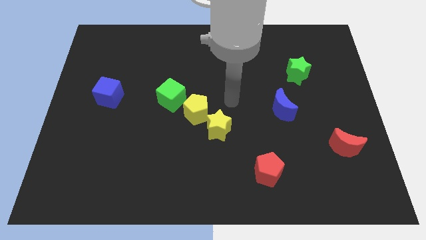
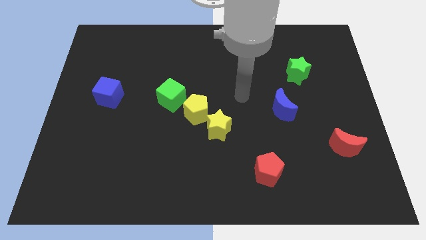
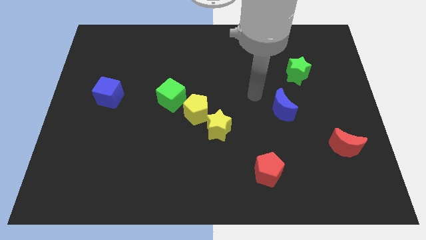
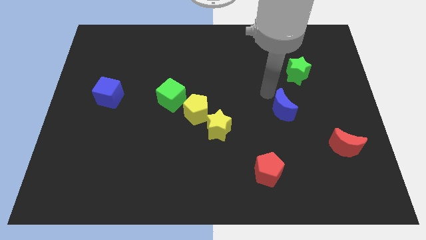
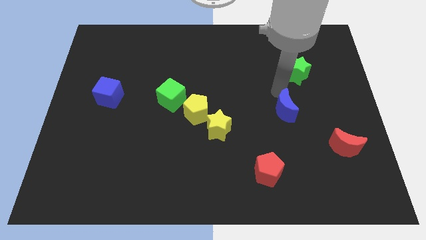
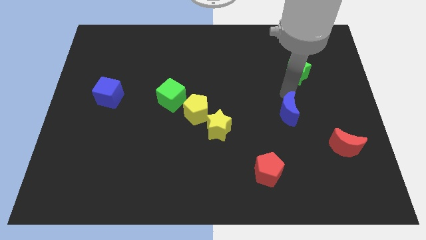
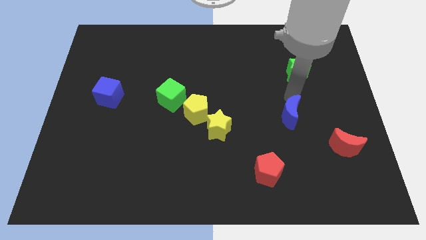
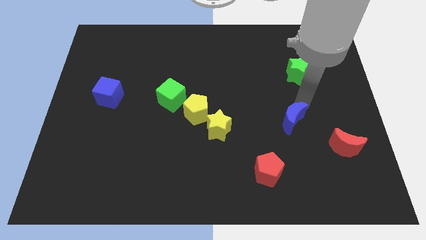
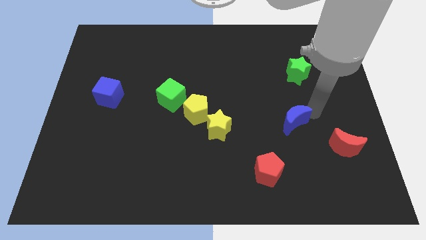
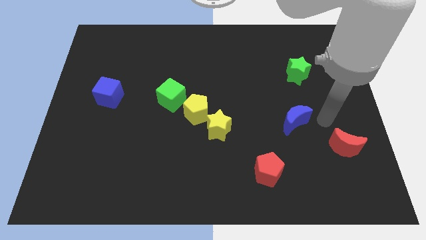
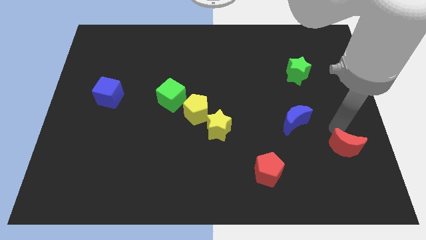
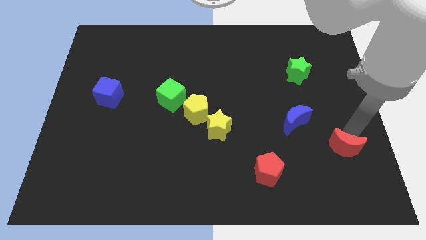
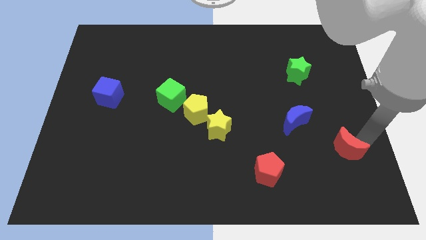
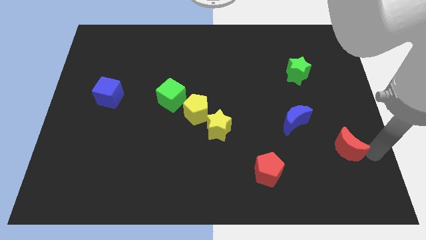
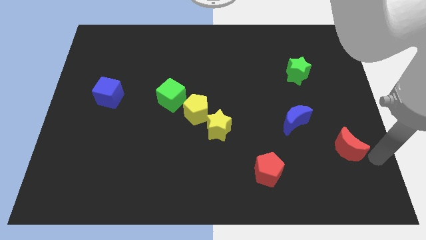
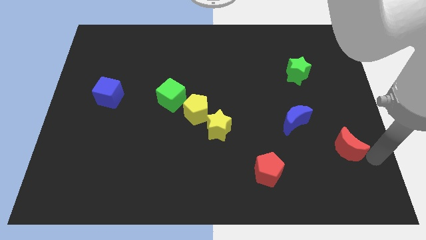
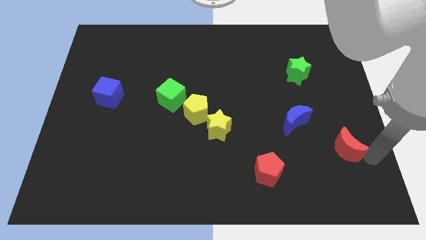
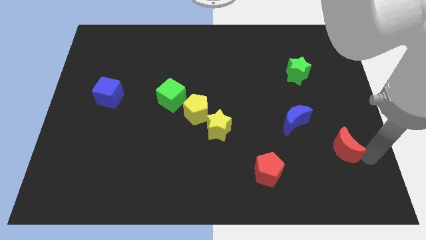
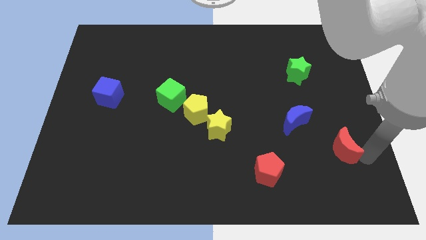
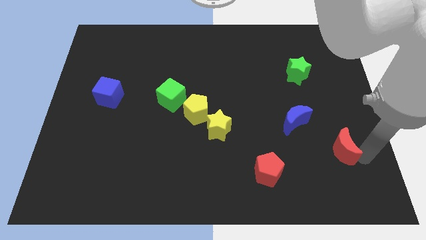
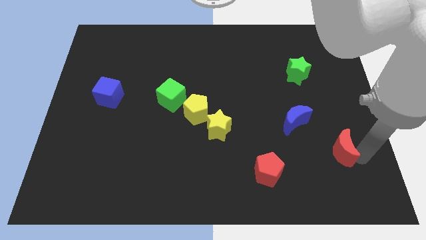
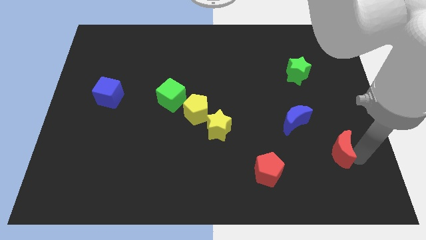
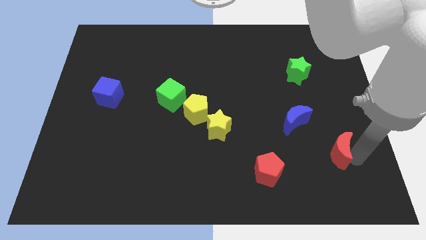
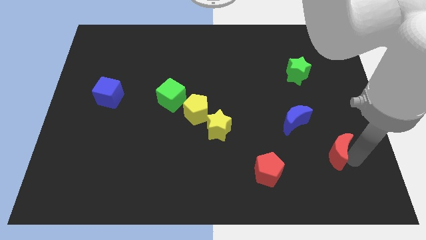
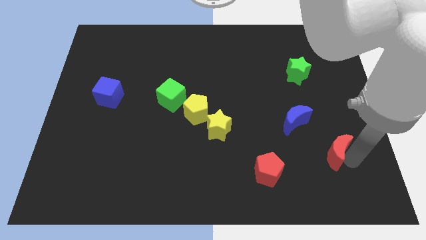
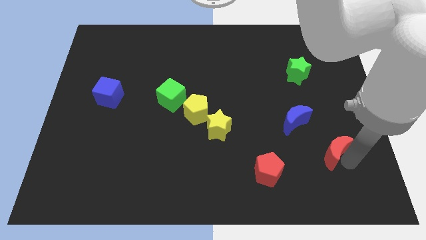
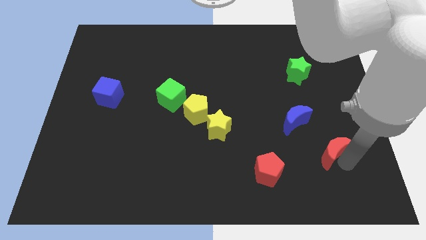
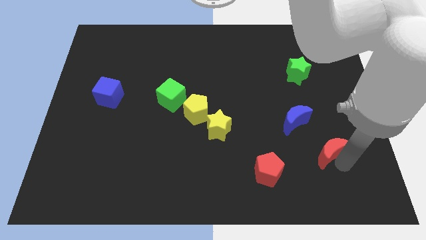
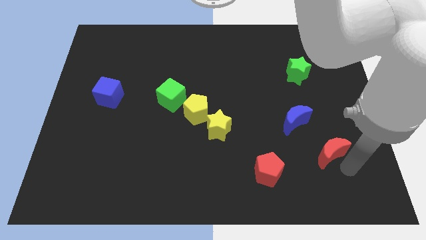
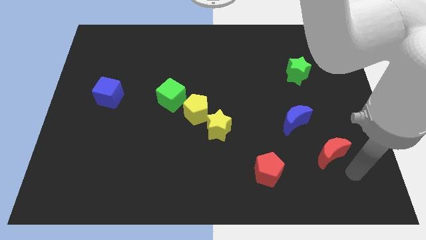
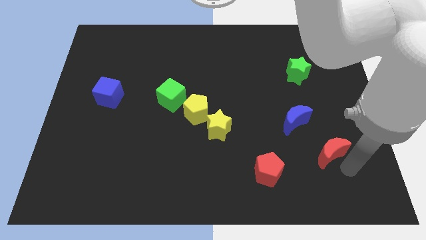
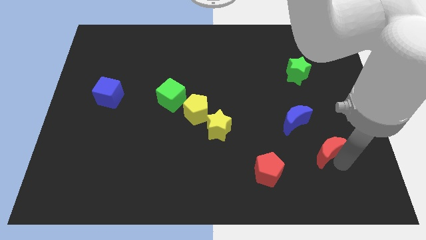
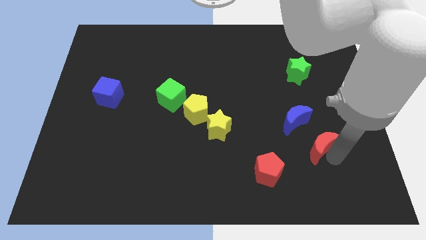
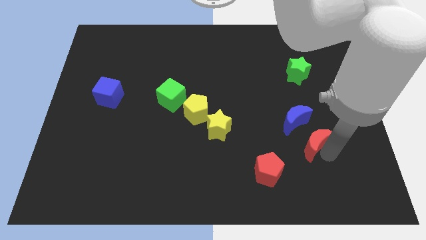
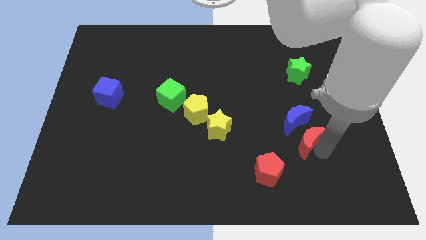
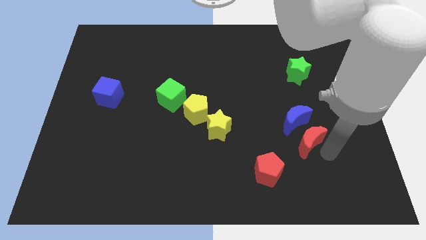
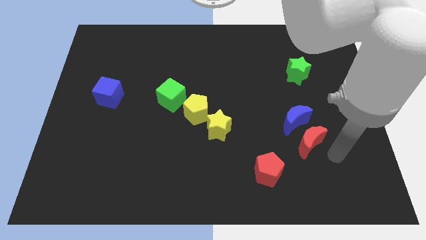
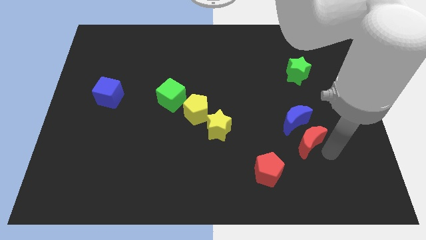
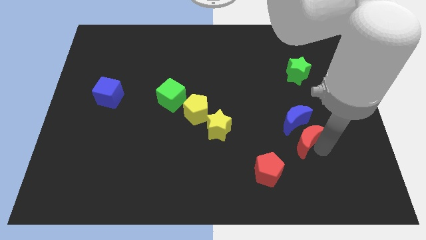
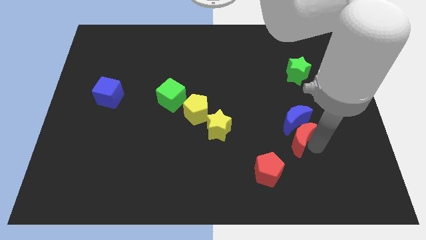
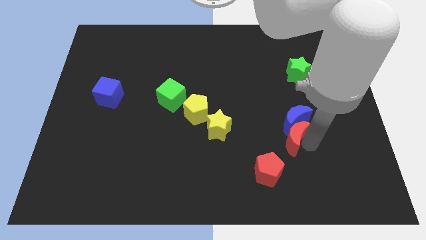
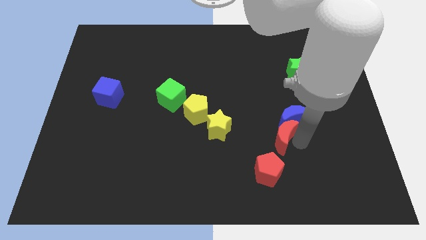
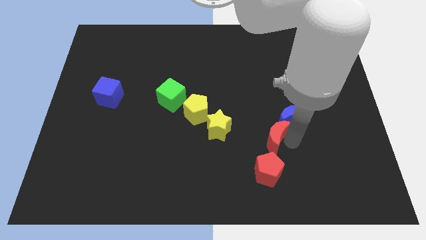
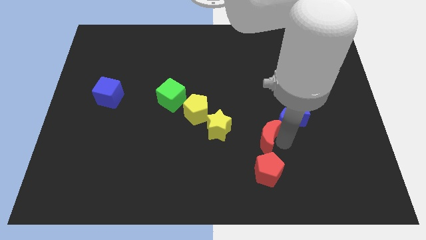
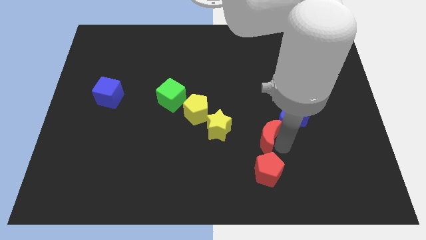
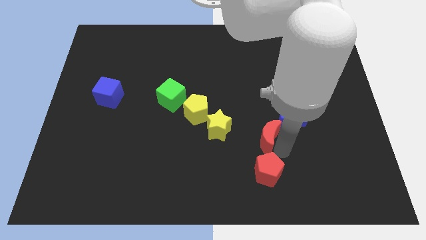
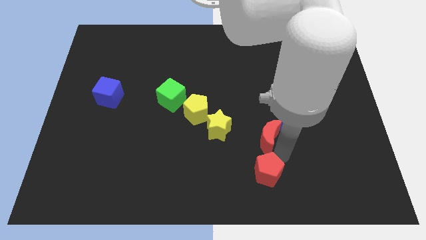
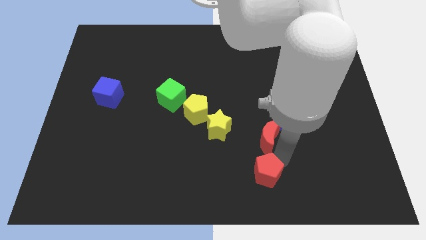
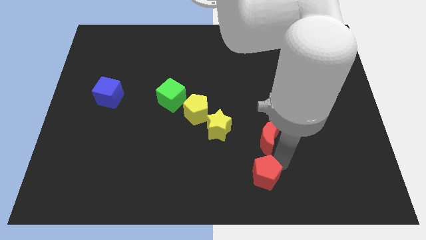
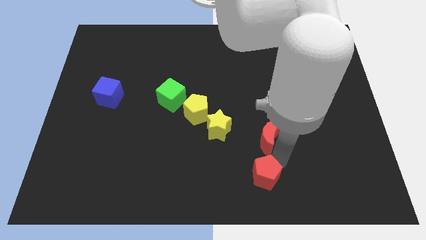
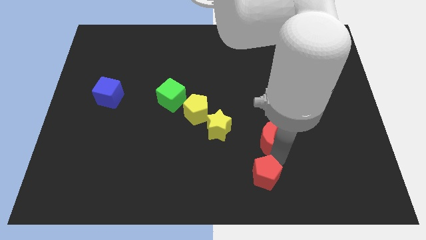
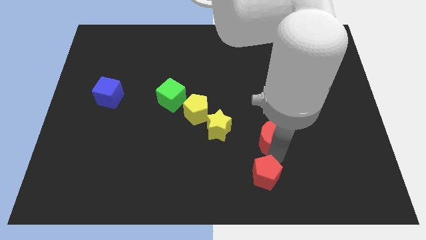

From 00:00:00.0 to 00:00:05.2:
move the red moon to the left side of the blue moon

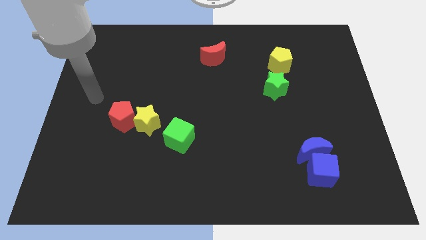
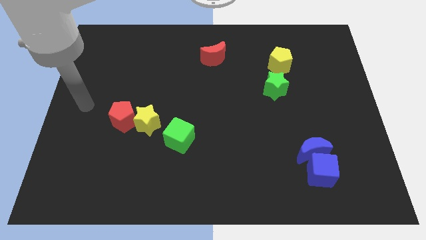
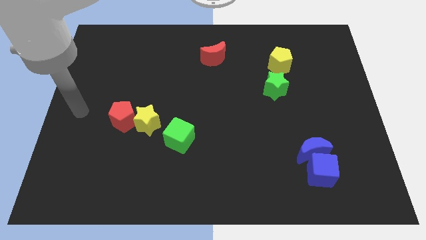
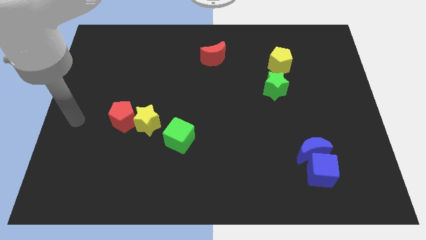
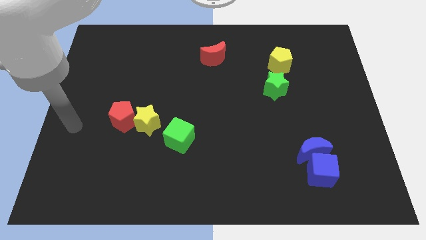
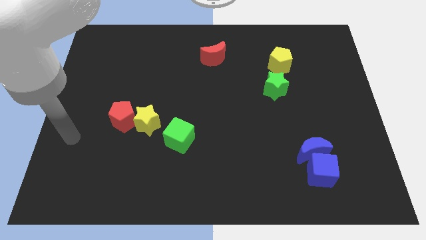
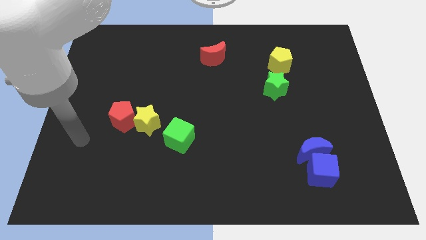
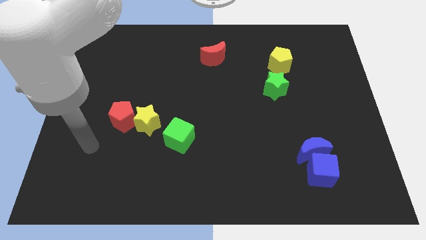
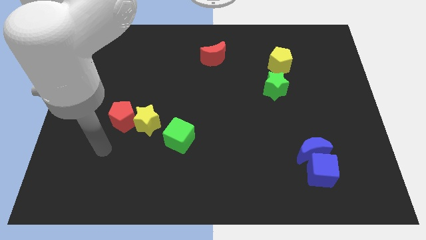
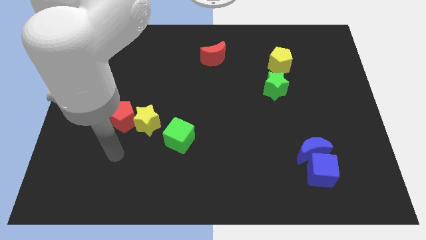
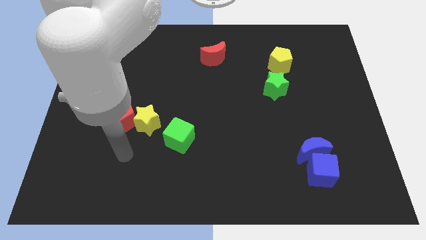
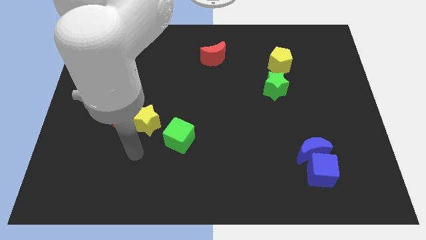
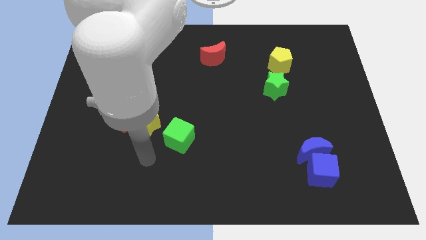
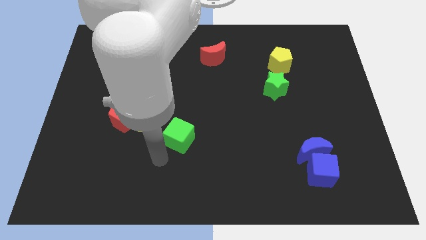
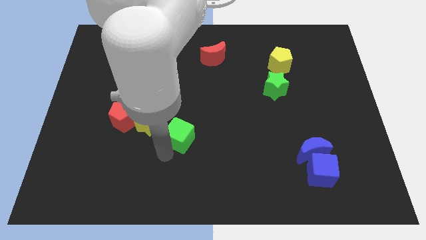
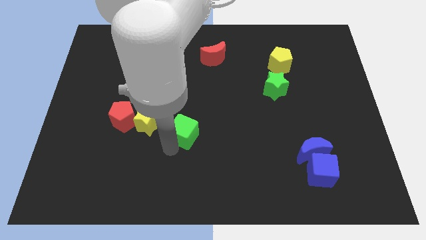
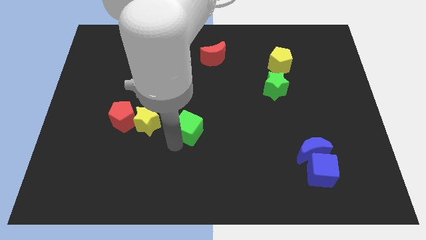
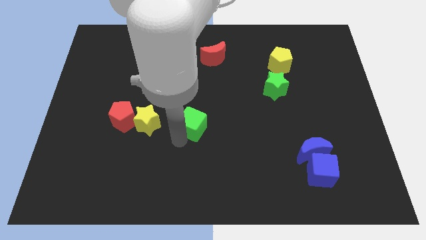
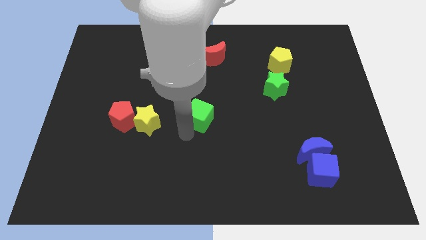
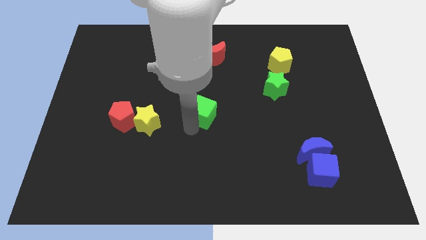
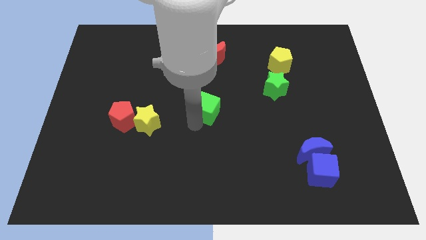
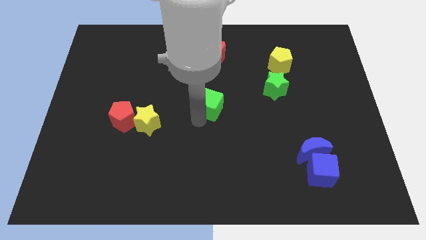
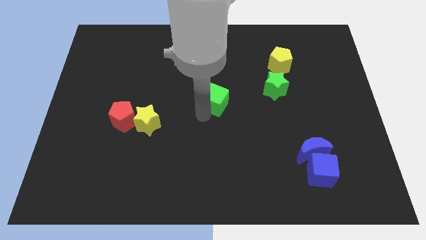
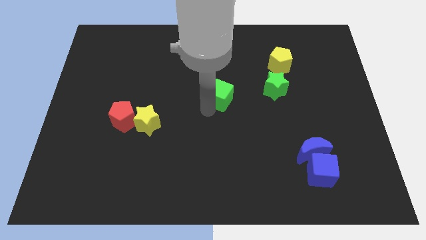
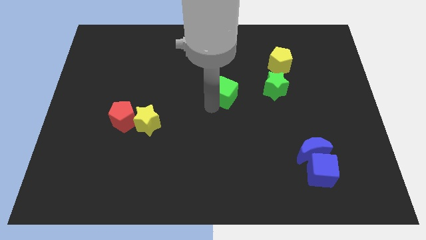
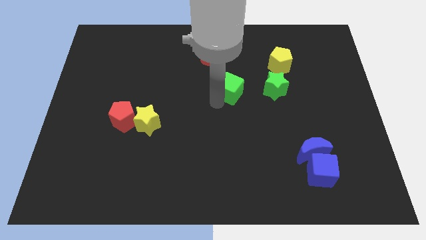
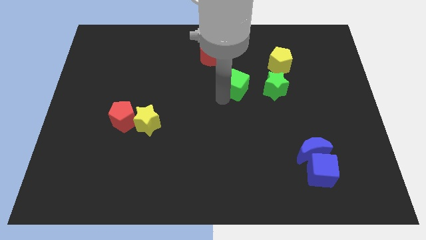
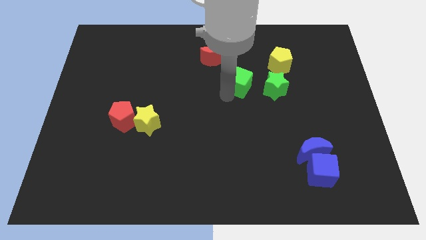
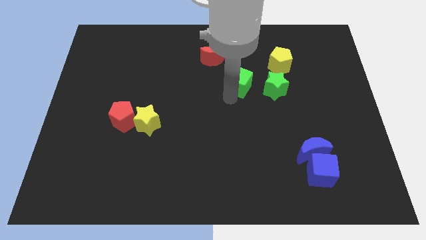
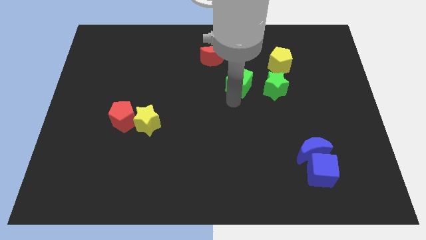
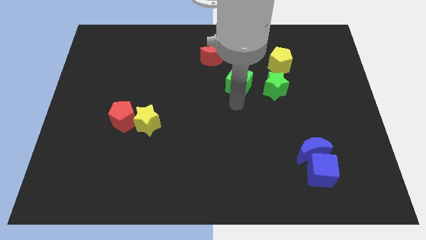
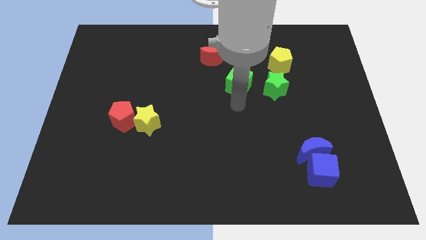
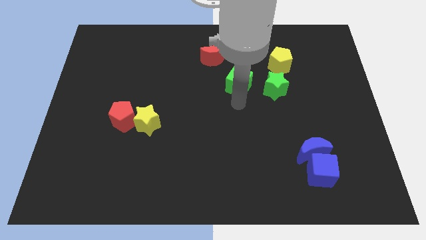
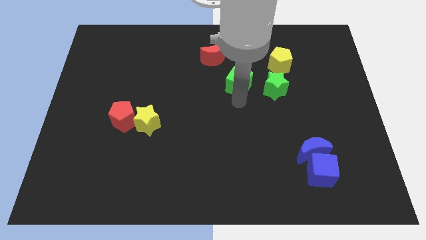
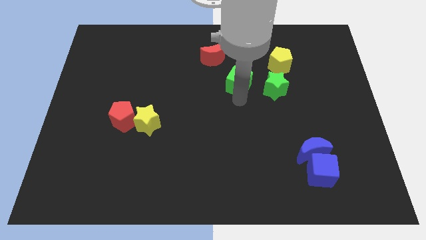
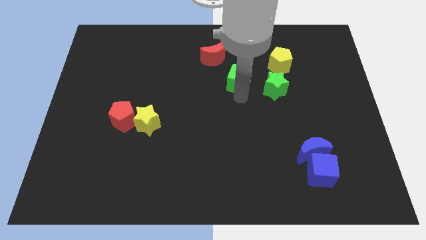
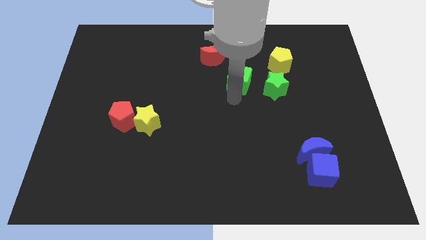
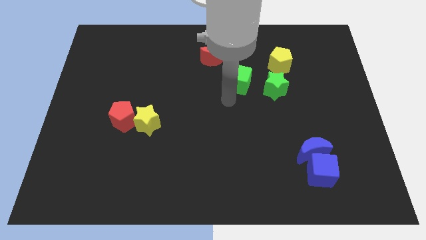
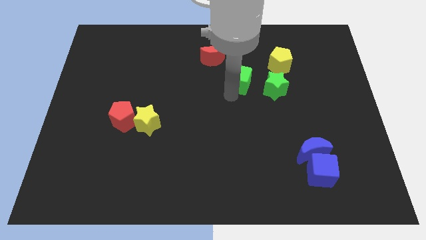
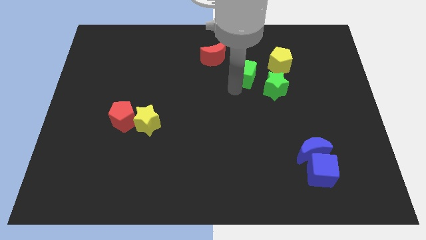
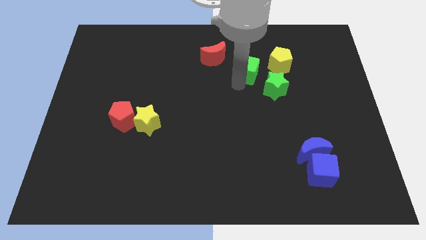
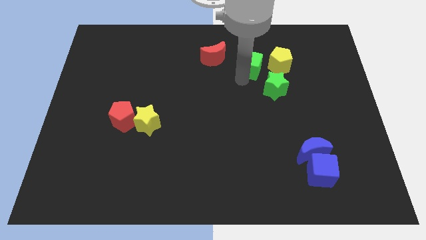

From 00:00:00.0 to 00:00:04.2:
put the green cube to the right of the red moon
